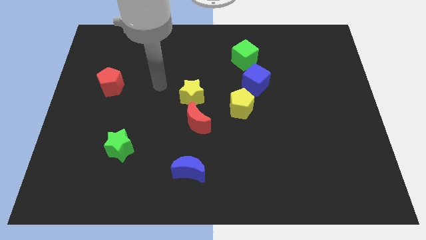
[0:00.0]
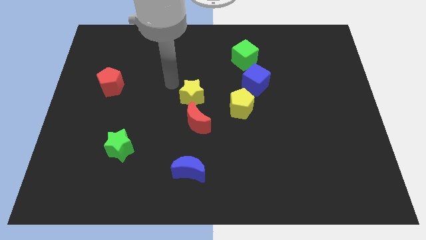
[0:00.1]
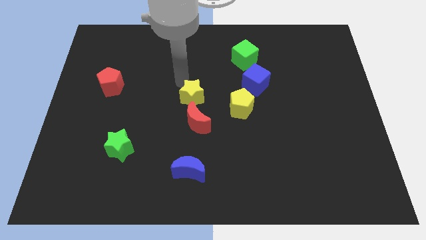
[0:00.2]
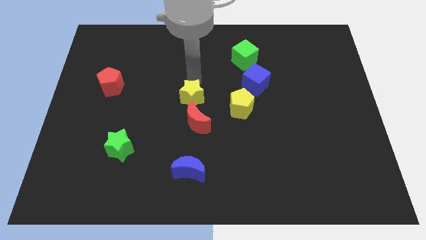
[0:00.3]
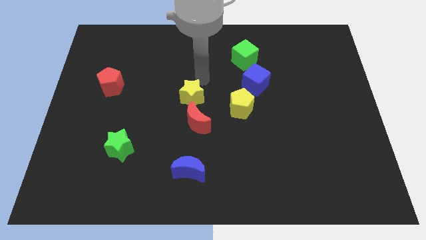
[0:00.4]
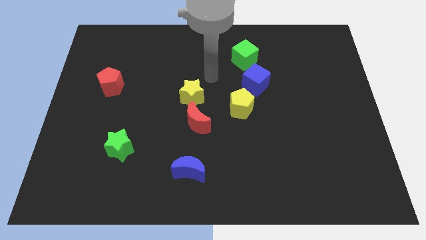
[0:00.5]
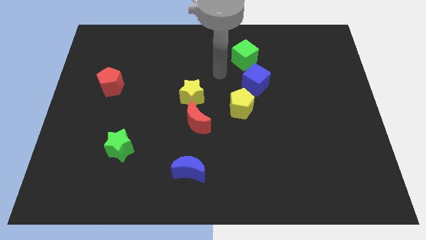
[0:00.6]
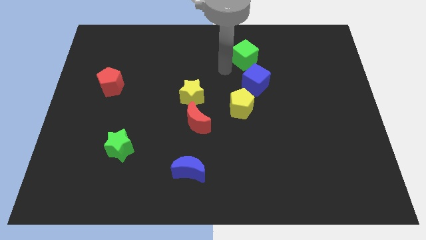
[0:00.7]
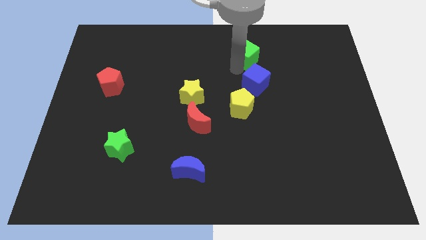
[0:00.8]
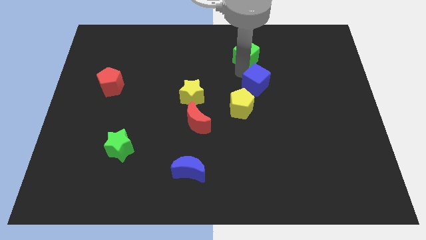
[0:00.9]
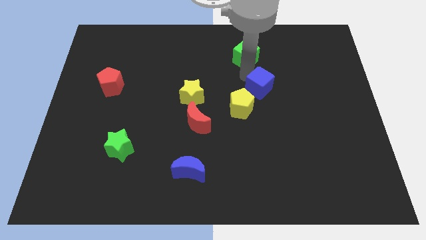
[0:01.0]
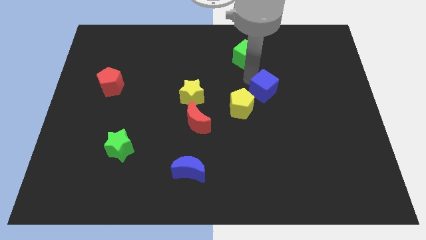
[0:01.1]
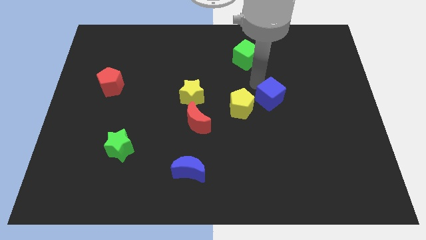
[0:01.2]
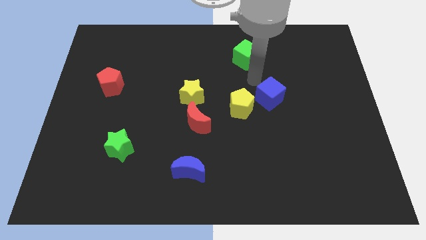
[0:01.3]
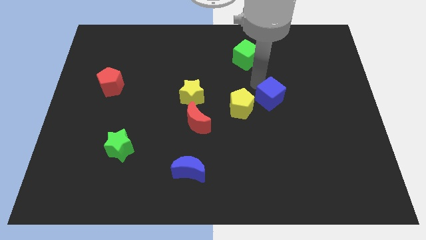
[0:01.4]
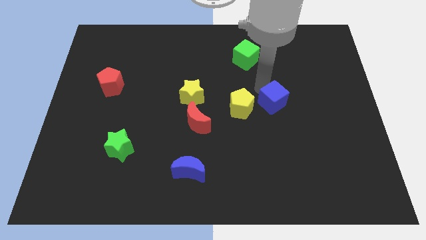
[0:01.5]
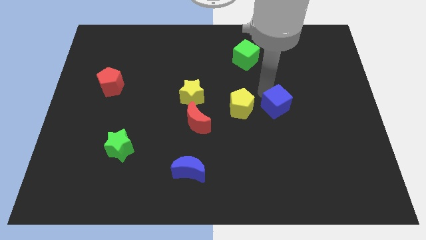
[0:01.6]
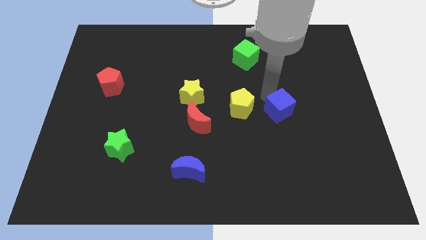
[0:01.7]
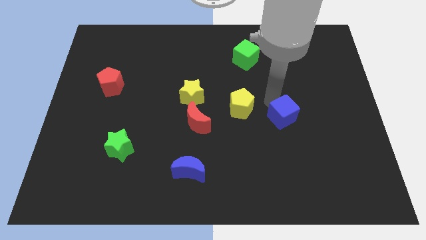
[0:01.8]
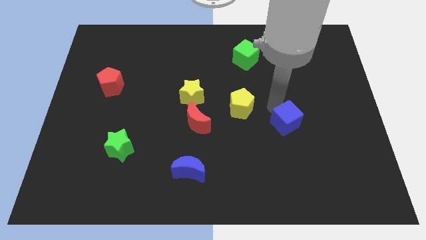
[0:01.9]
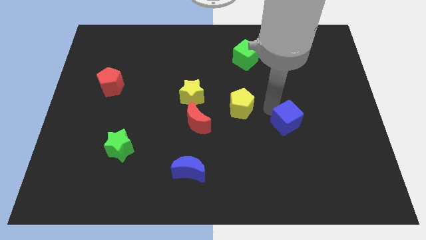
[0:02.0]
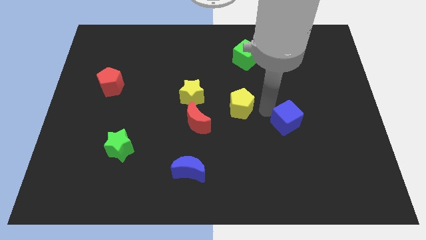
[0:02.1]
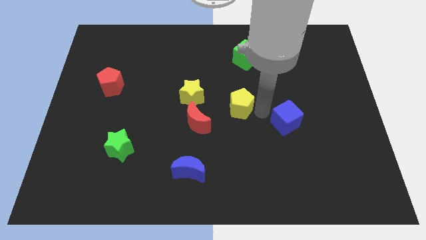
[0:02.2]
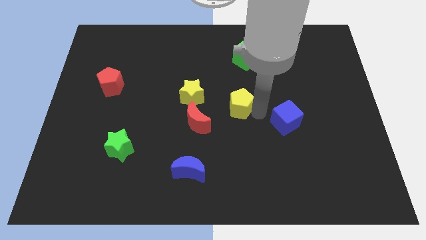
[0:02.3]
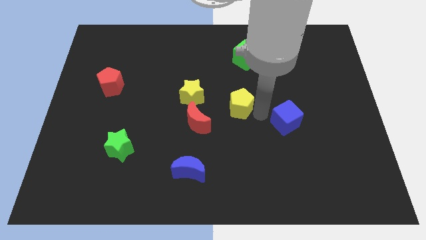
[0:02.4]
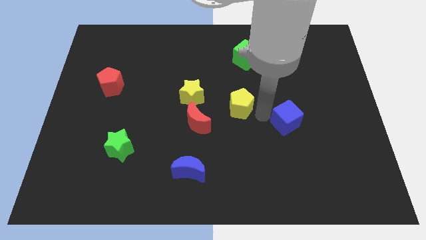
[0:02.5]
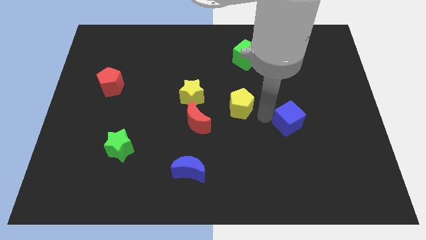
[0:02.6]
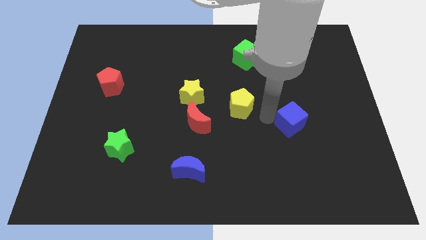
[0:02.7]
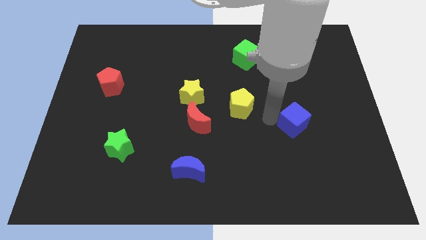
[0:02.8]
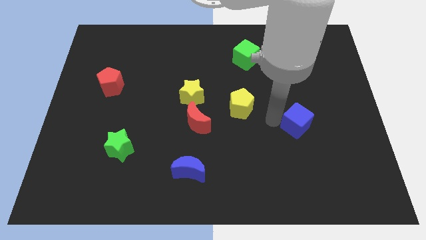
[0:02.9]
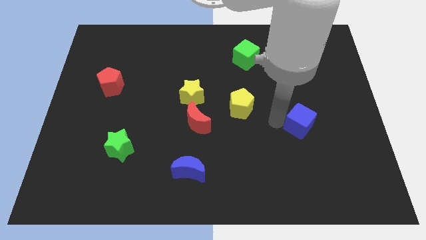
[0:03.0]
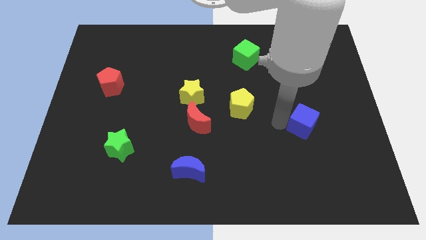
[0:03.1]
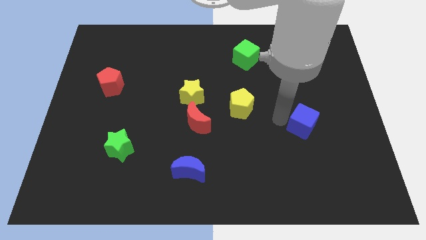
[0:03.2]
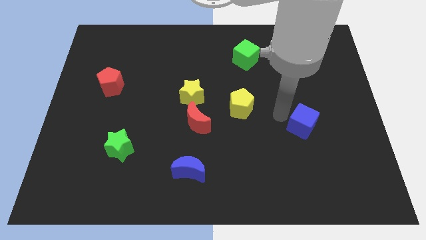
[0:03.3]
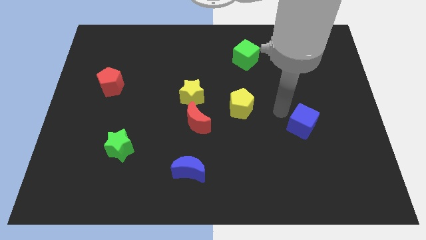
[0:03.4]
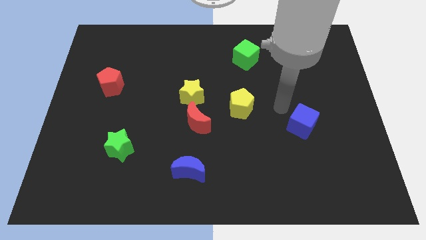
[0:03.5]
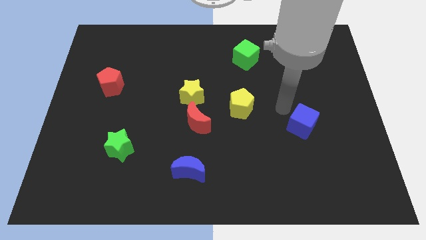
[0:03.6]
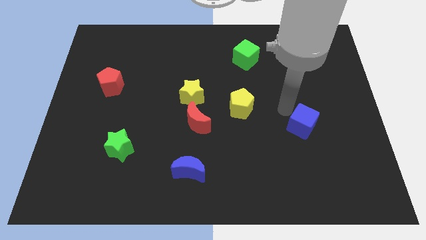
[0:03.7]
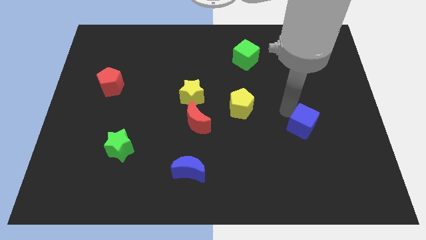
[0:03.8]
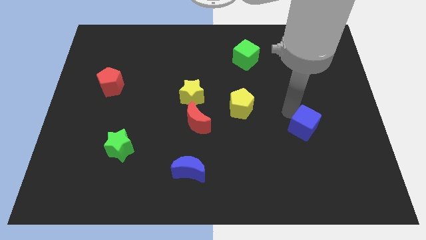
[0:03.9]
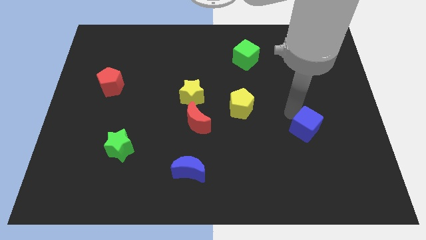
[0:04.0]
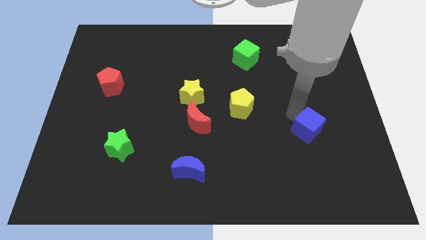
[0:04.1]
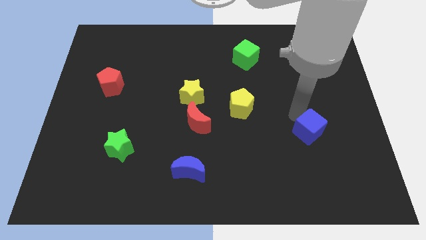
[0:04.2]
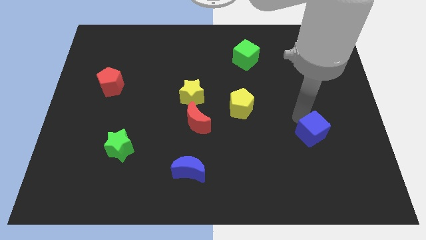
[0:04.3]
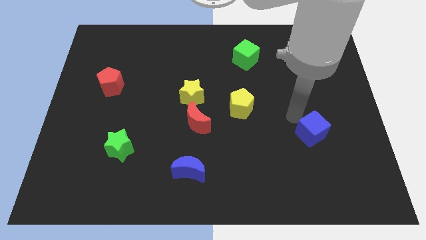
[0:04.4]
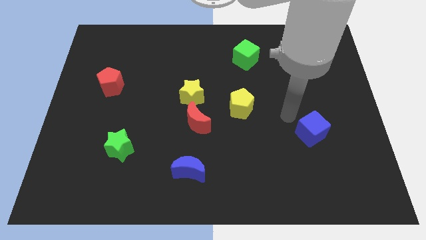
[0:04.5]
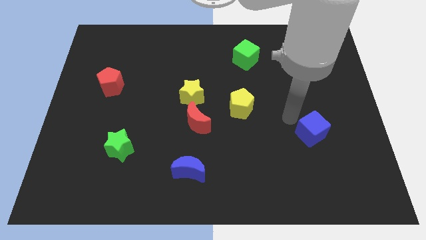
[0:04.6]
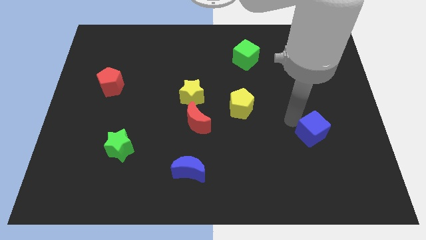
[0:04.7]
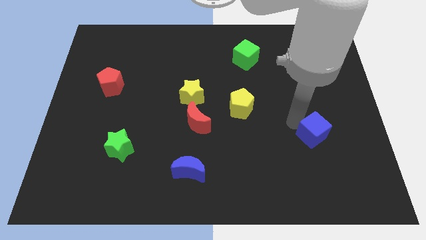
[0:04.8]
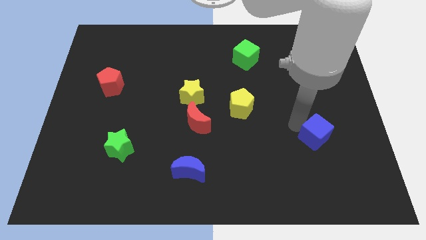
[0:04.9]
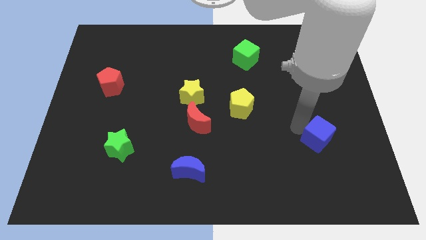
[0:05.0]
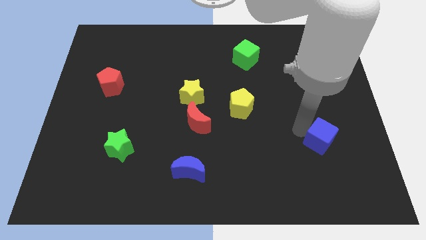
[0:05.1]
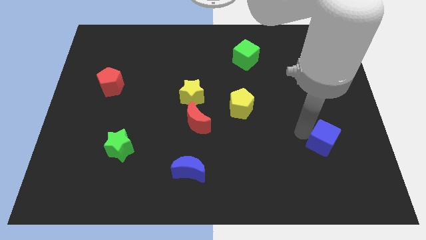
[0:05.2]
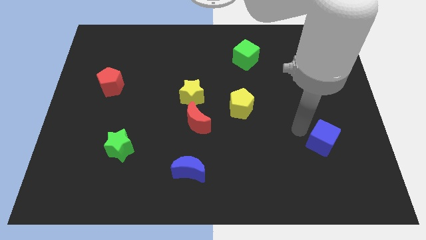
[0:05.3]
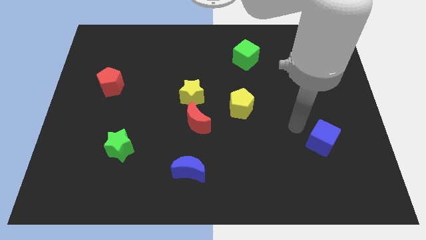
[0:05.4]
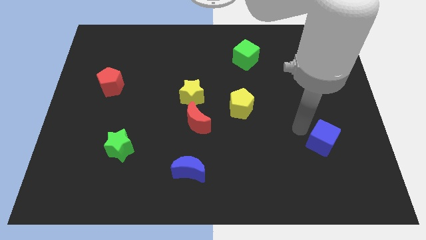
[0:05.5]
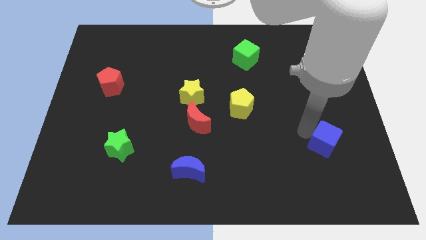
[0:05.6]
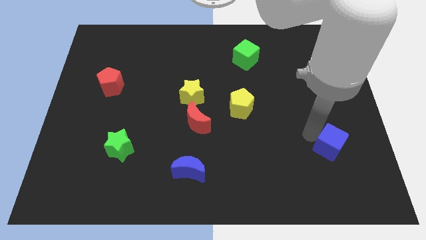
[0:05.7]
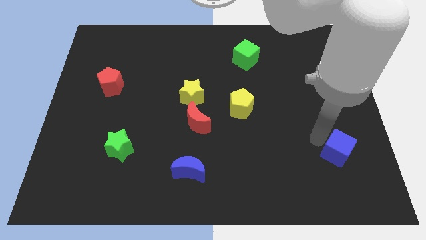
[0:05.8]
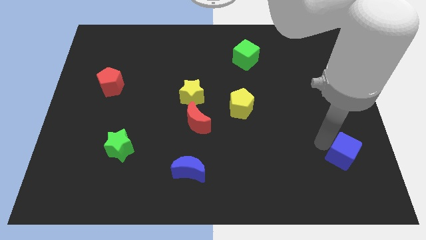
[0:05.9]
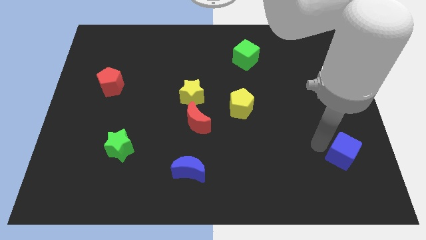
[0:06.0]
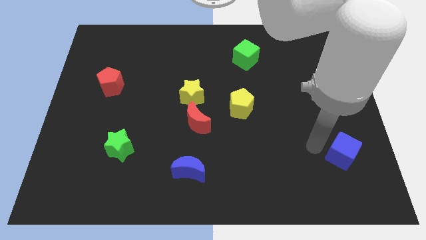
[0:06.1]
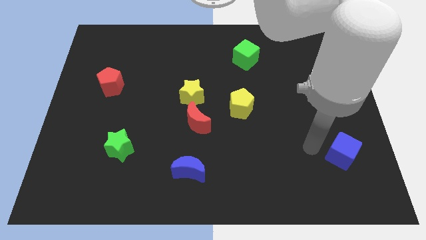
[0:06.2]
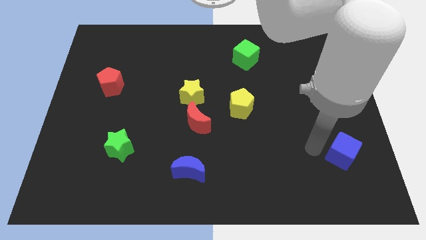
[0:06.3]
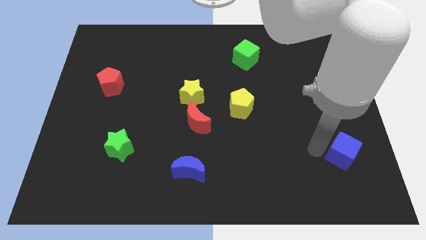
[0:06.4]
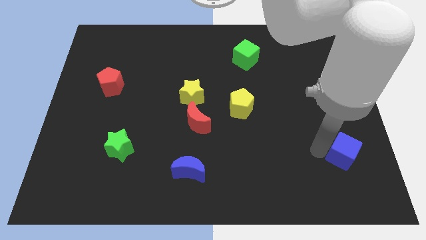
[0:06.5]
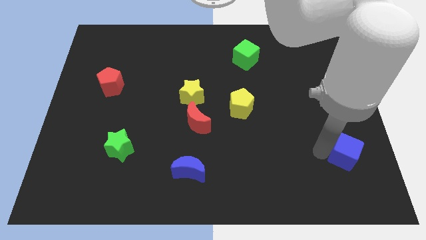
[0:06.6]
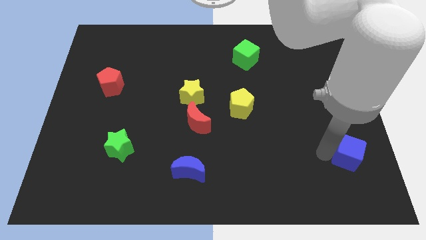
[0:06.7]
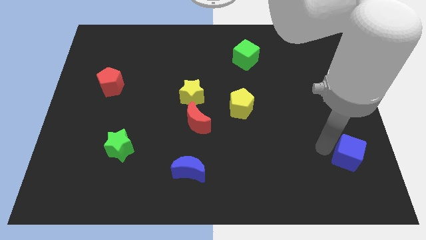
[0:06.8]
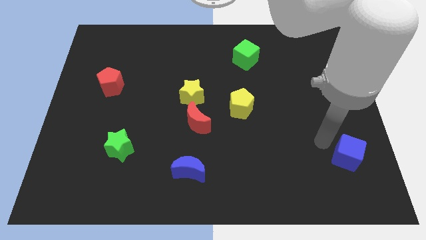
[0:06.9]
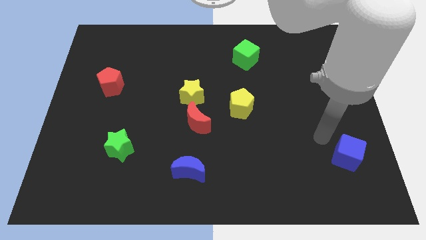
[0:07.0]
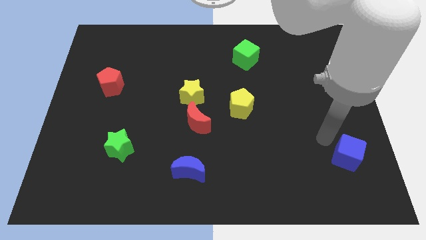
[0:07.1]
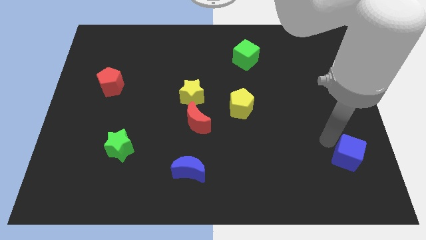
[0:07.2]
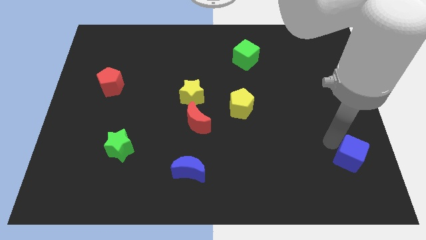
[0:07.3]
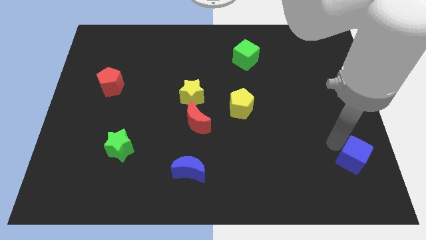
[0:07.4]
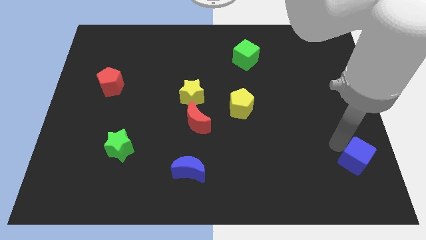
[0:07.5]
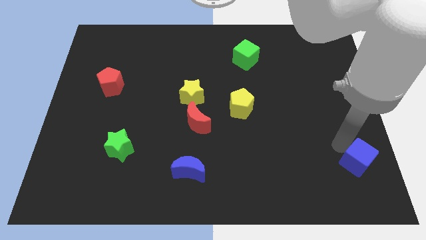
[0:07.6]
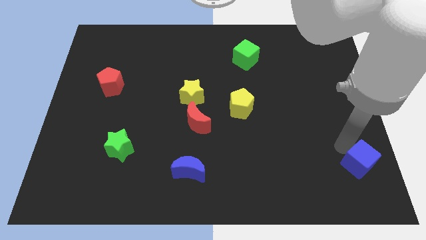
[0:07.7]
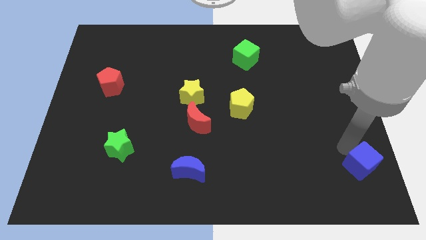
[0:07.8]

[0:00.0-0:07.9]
move the blue cube to the bottom right of the board
